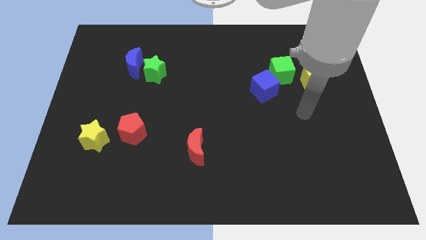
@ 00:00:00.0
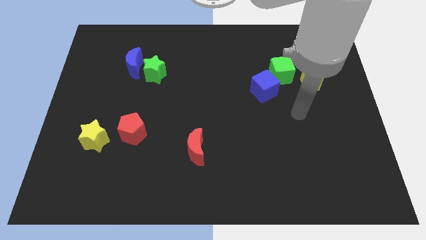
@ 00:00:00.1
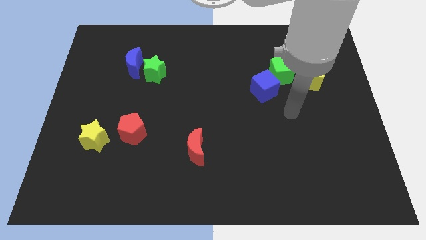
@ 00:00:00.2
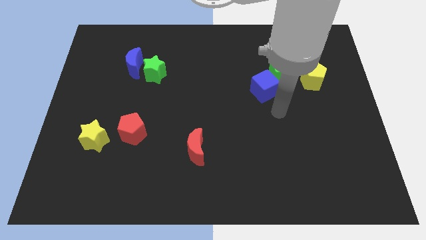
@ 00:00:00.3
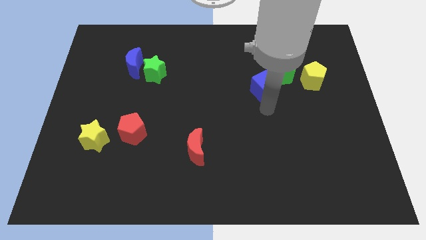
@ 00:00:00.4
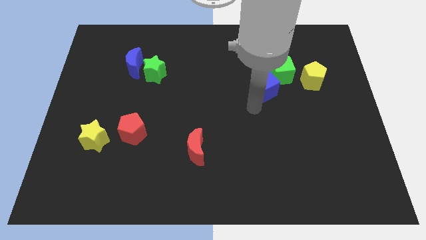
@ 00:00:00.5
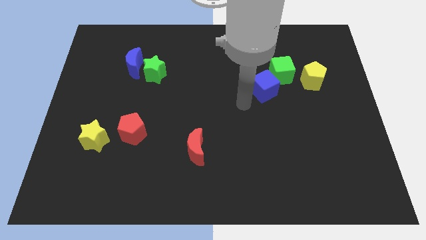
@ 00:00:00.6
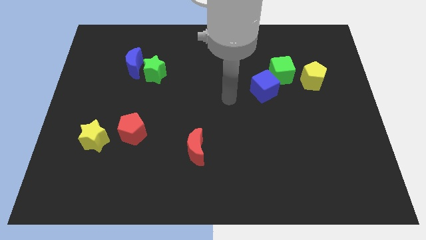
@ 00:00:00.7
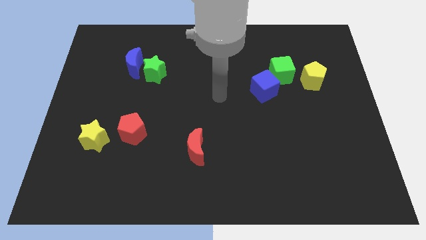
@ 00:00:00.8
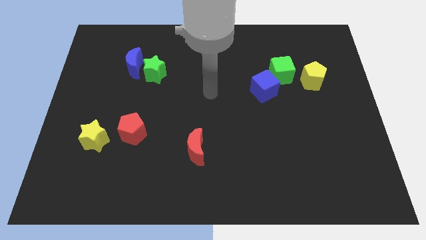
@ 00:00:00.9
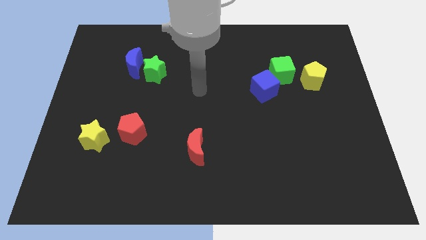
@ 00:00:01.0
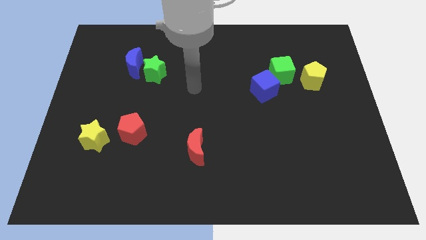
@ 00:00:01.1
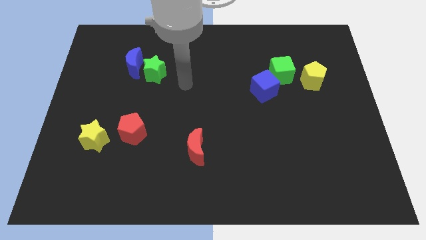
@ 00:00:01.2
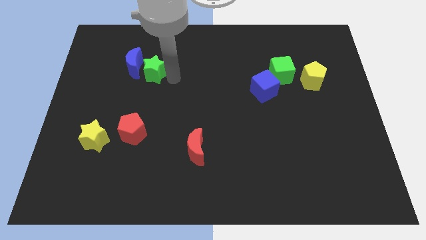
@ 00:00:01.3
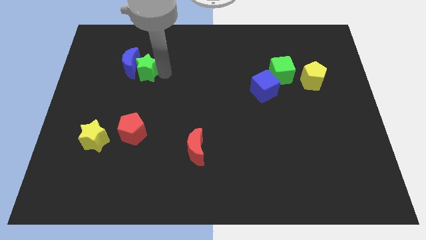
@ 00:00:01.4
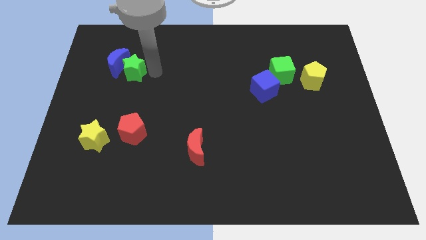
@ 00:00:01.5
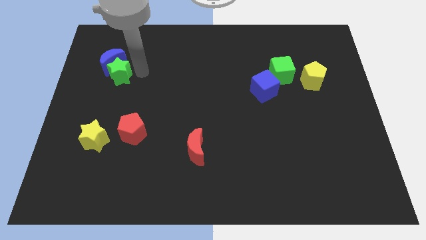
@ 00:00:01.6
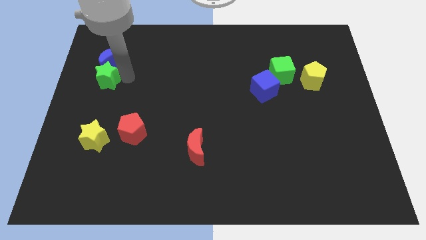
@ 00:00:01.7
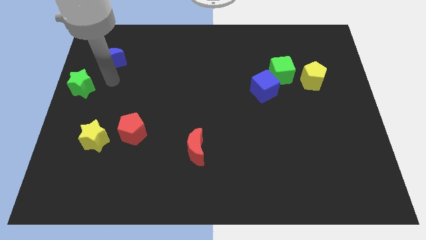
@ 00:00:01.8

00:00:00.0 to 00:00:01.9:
pull the blue moon apart from the green star

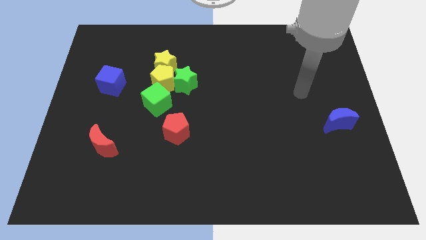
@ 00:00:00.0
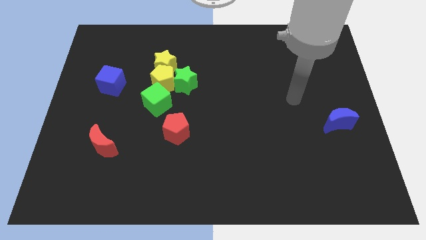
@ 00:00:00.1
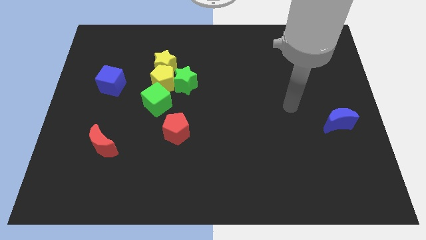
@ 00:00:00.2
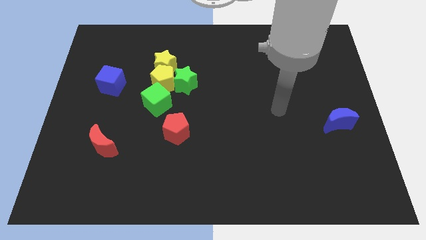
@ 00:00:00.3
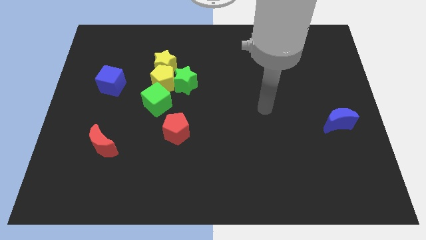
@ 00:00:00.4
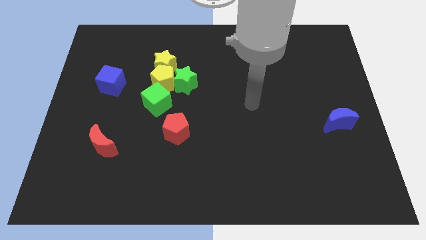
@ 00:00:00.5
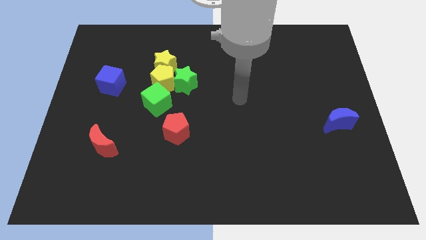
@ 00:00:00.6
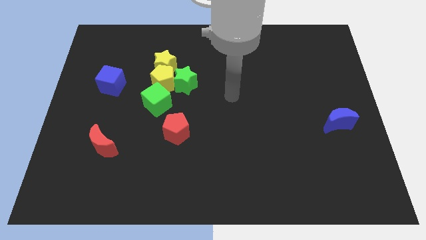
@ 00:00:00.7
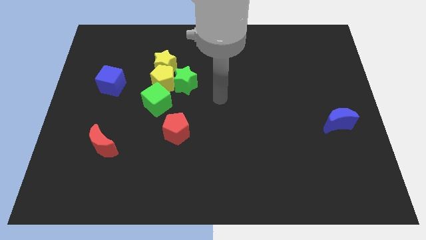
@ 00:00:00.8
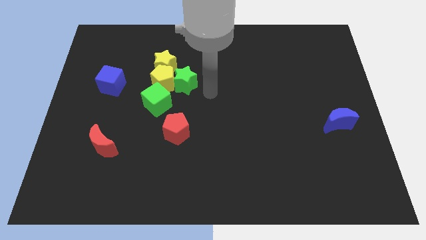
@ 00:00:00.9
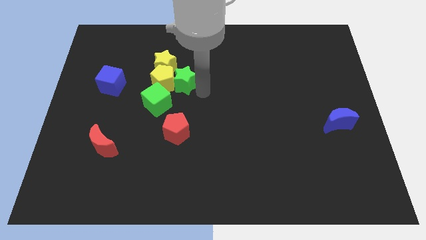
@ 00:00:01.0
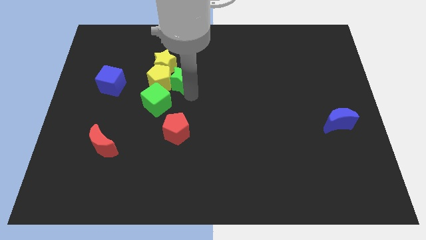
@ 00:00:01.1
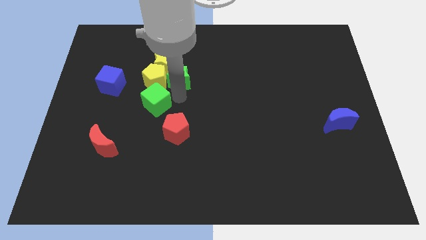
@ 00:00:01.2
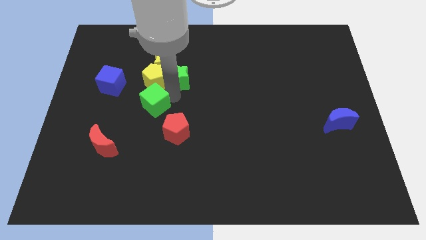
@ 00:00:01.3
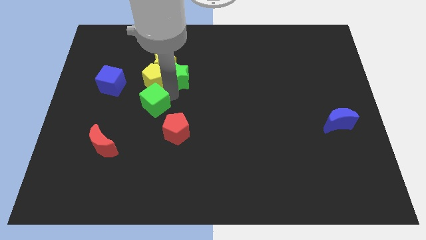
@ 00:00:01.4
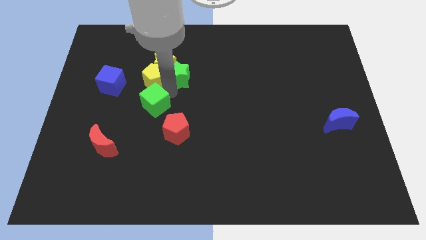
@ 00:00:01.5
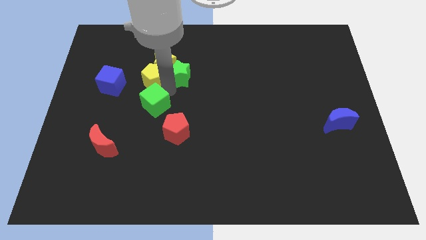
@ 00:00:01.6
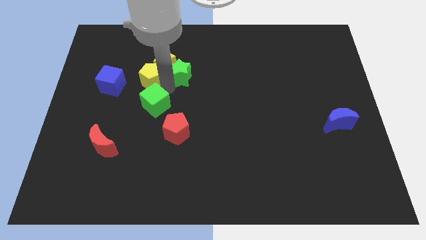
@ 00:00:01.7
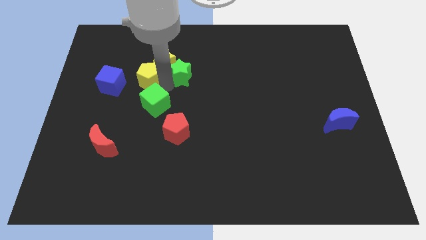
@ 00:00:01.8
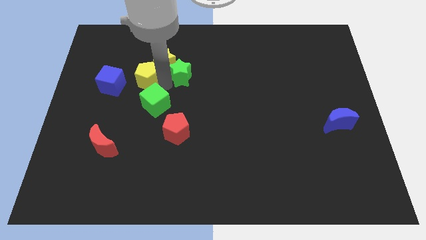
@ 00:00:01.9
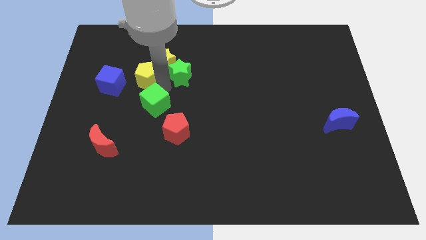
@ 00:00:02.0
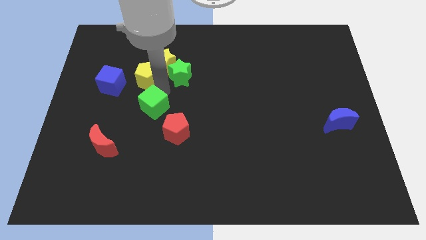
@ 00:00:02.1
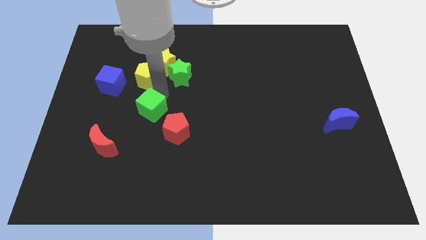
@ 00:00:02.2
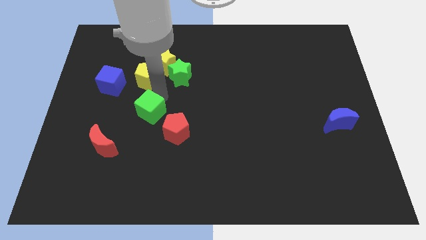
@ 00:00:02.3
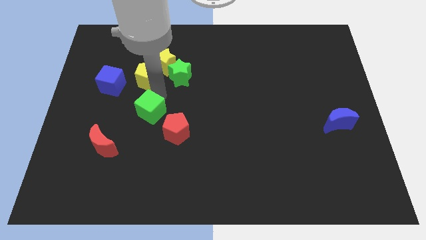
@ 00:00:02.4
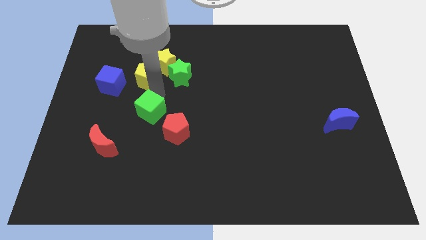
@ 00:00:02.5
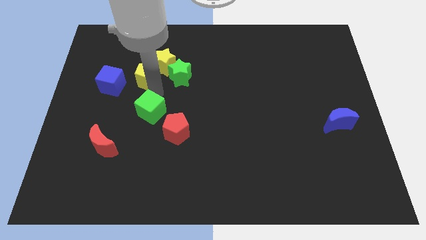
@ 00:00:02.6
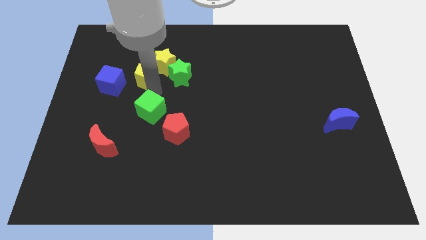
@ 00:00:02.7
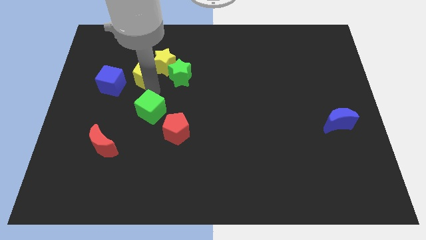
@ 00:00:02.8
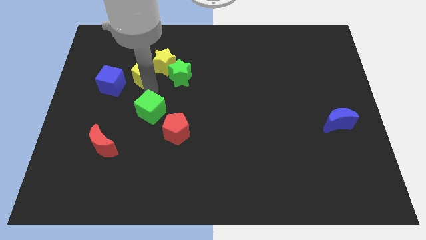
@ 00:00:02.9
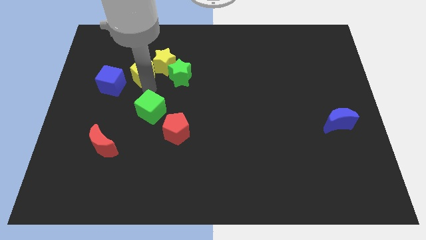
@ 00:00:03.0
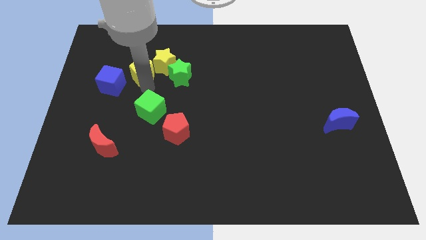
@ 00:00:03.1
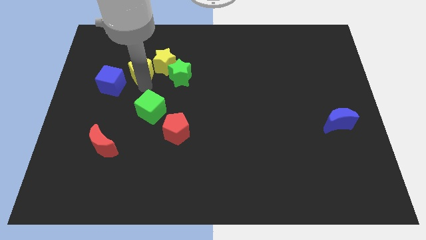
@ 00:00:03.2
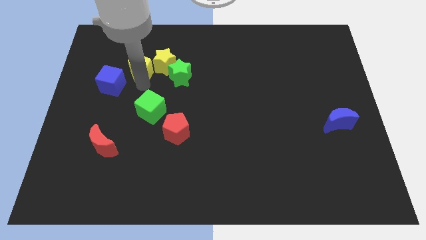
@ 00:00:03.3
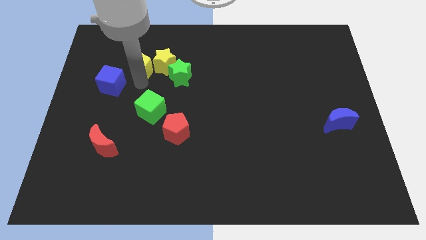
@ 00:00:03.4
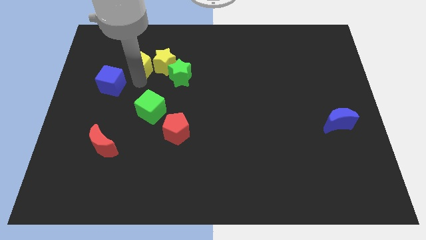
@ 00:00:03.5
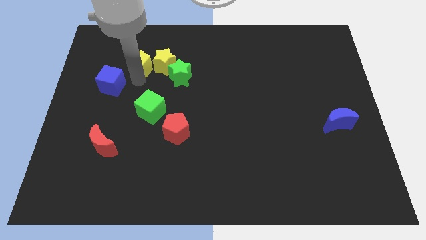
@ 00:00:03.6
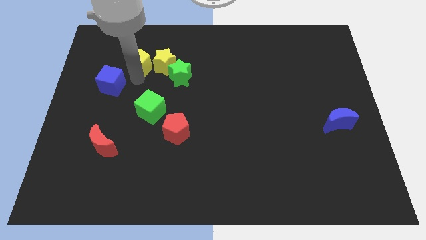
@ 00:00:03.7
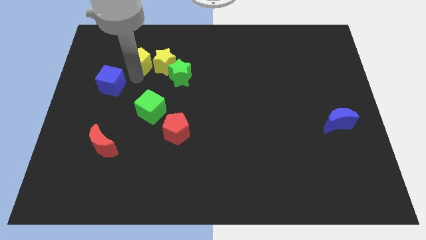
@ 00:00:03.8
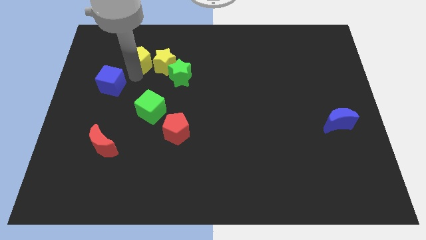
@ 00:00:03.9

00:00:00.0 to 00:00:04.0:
move the yellow pentagon away from the clump

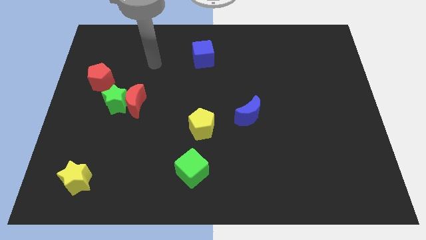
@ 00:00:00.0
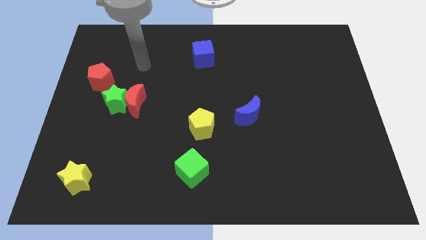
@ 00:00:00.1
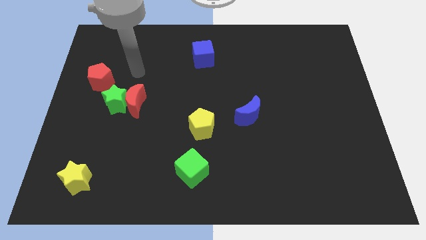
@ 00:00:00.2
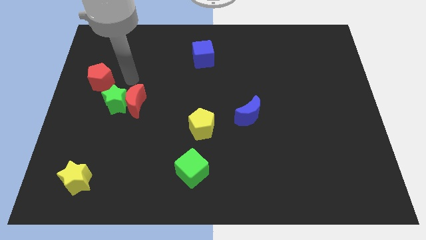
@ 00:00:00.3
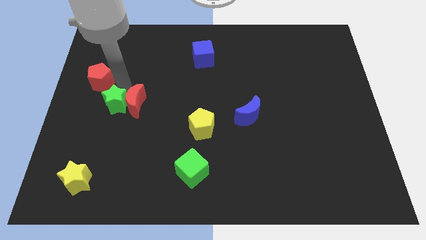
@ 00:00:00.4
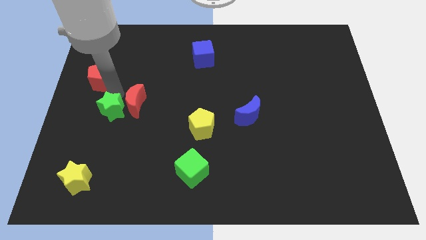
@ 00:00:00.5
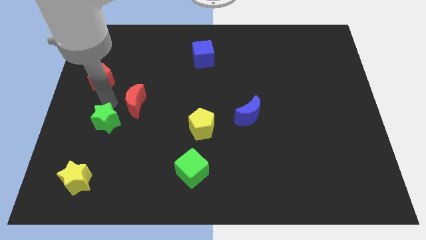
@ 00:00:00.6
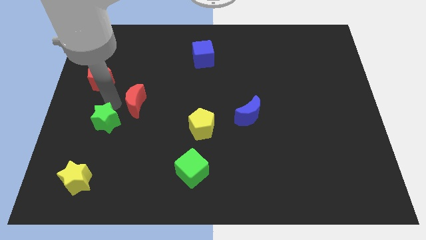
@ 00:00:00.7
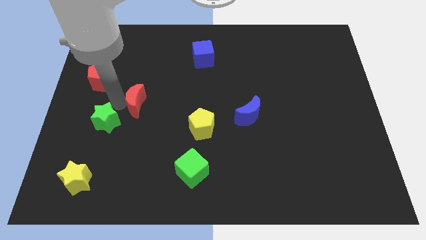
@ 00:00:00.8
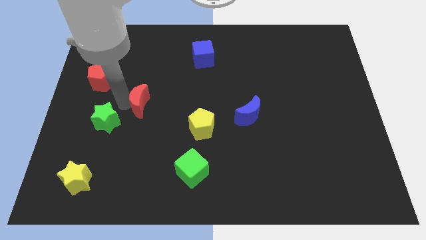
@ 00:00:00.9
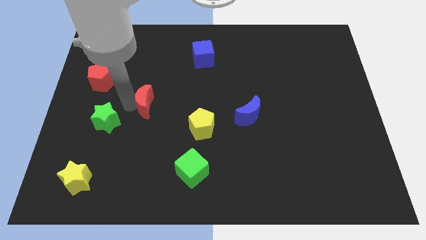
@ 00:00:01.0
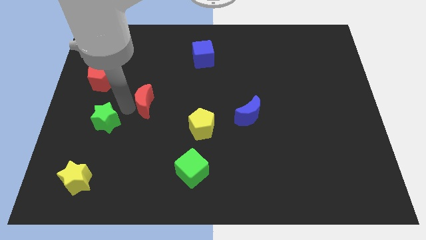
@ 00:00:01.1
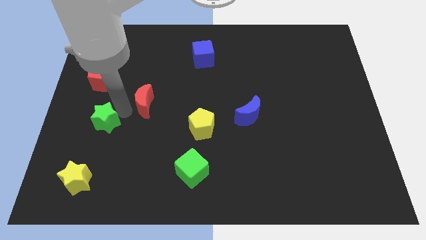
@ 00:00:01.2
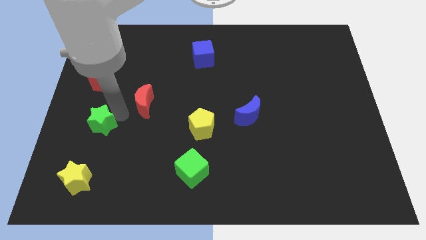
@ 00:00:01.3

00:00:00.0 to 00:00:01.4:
move the red moon away from the green star

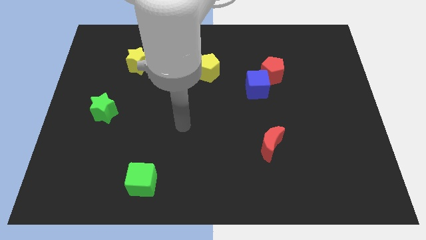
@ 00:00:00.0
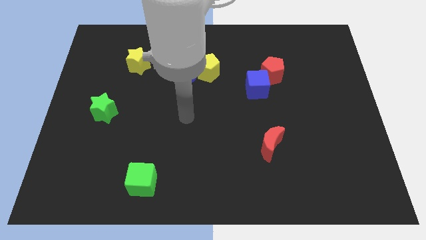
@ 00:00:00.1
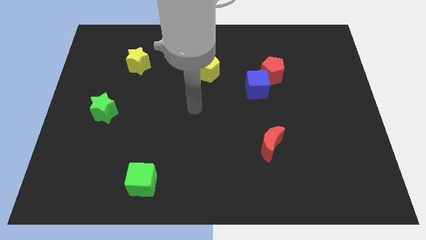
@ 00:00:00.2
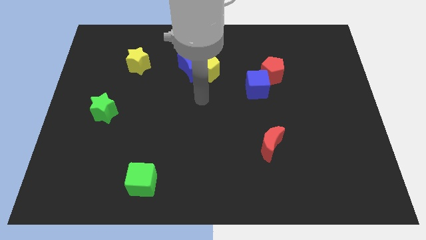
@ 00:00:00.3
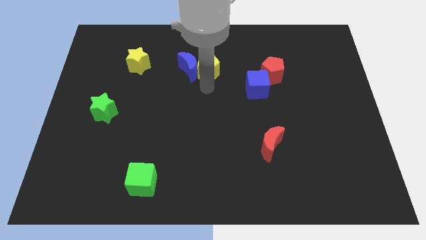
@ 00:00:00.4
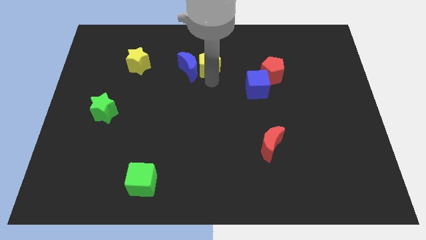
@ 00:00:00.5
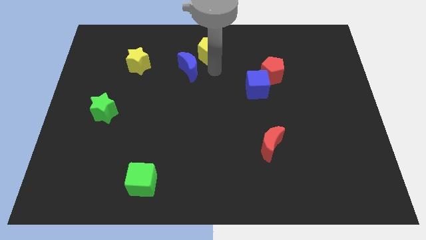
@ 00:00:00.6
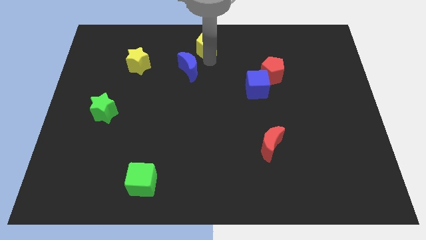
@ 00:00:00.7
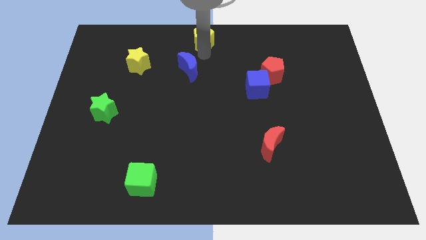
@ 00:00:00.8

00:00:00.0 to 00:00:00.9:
separate the blue moon from the yellow pentagon

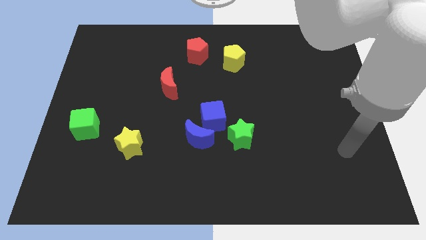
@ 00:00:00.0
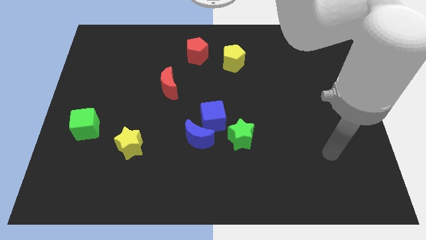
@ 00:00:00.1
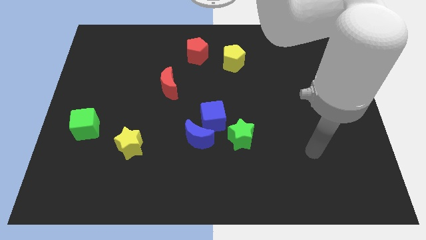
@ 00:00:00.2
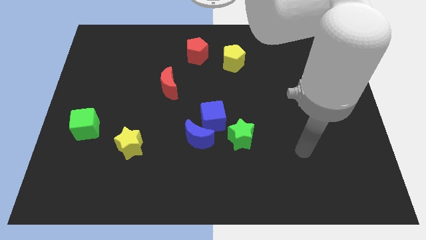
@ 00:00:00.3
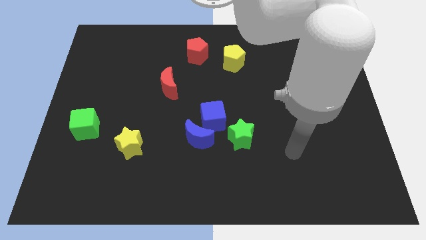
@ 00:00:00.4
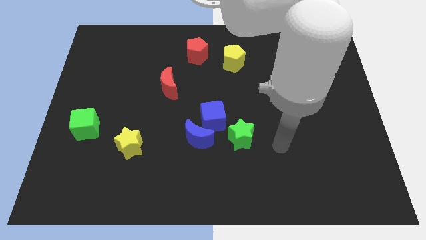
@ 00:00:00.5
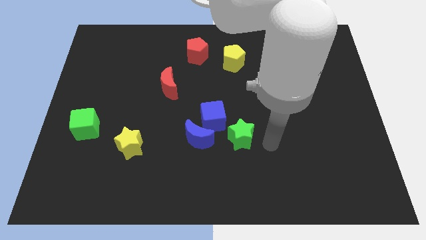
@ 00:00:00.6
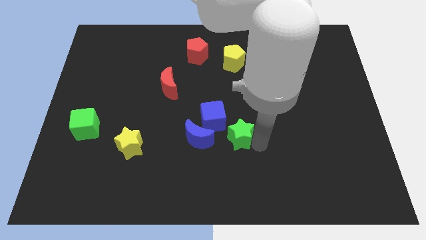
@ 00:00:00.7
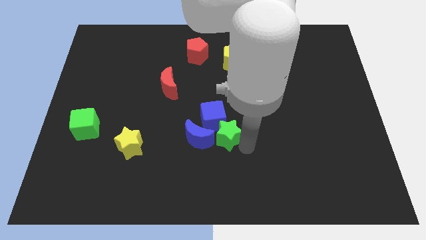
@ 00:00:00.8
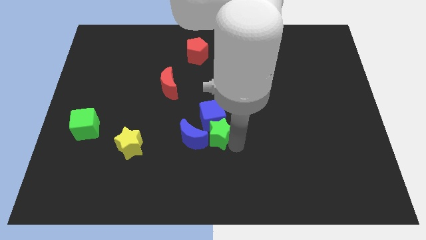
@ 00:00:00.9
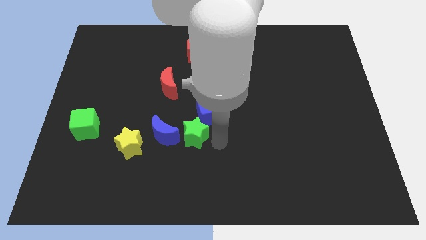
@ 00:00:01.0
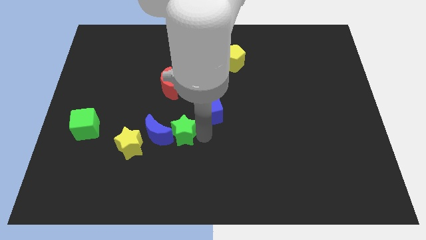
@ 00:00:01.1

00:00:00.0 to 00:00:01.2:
pull the blue cube apart from the blue moon and green star
